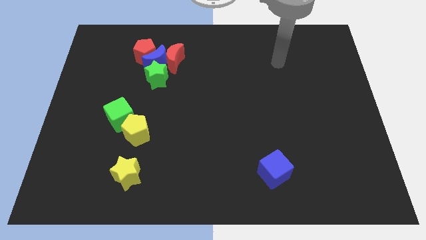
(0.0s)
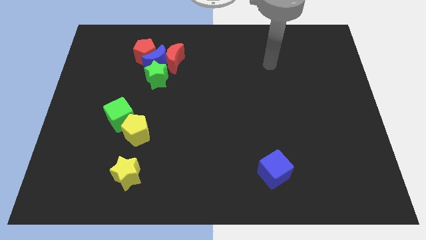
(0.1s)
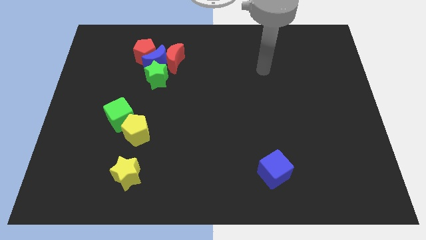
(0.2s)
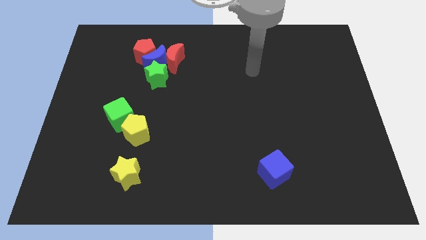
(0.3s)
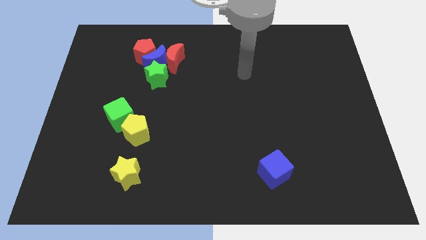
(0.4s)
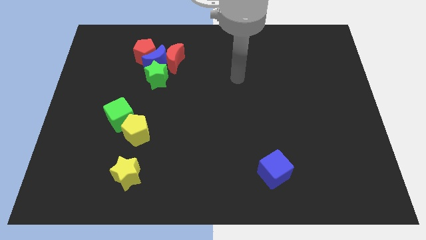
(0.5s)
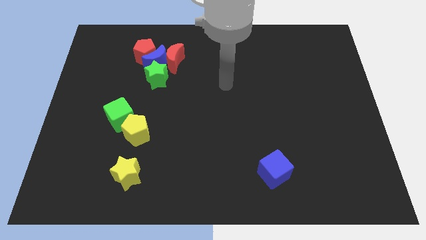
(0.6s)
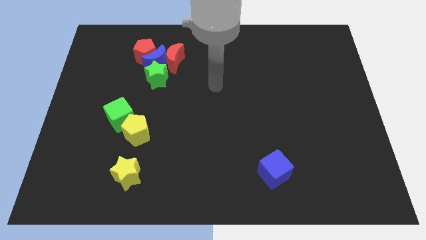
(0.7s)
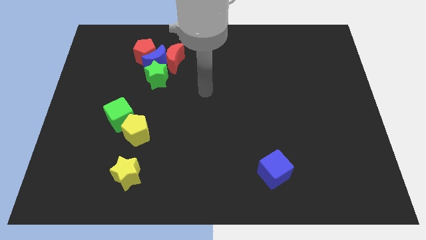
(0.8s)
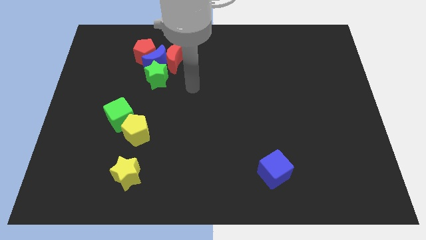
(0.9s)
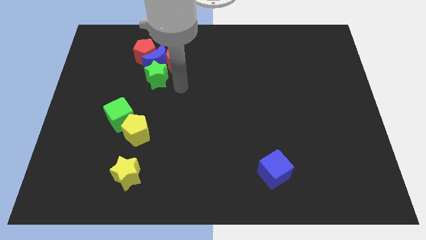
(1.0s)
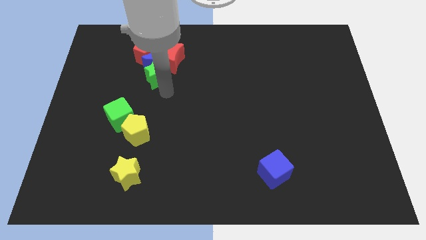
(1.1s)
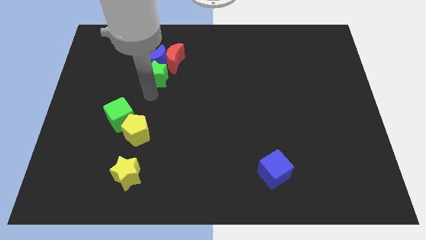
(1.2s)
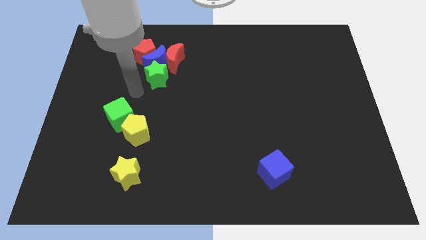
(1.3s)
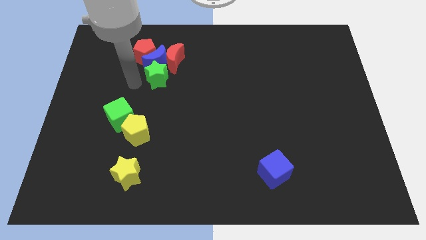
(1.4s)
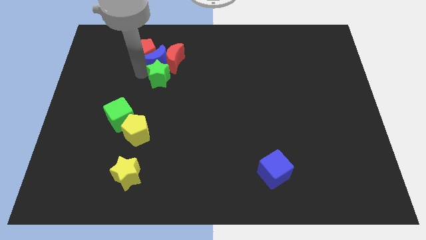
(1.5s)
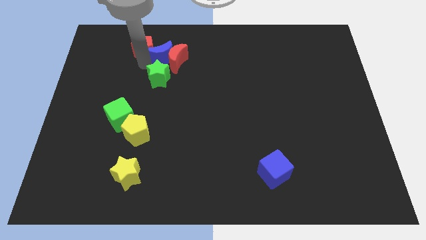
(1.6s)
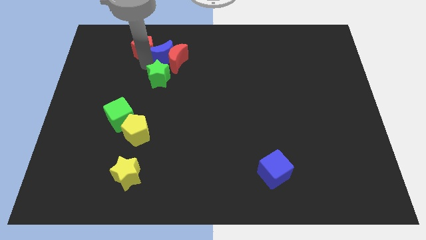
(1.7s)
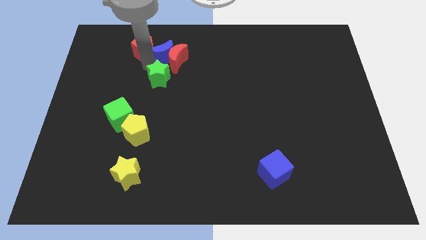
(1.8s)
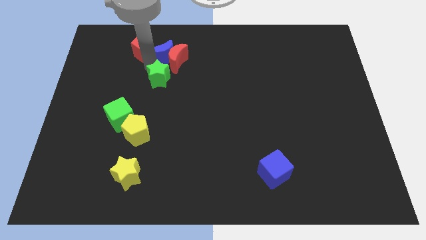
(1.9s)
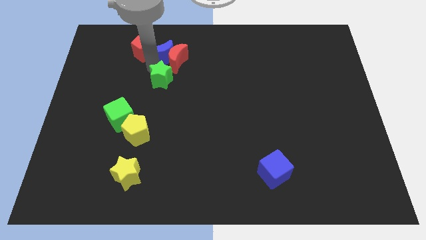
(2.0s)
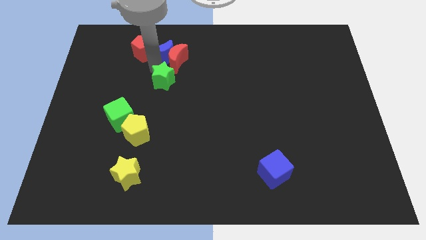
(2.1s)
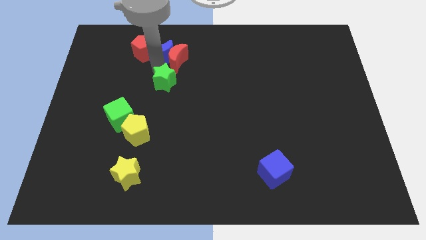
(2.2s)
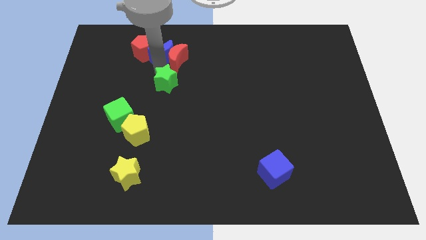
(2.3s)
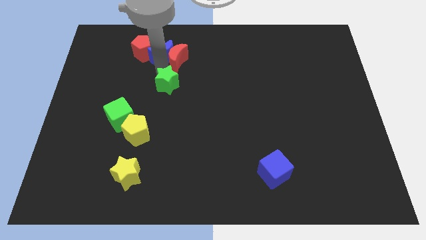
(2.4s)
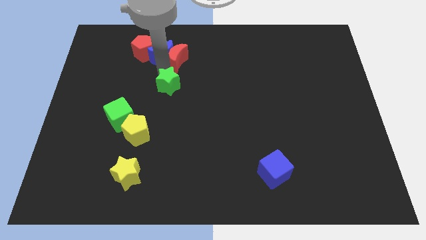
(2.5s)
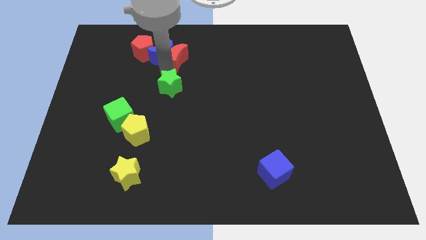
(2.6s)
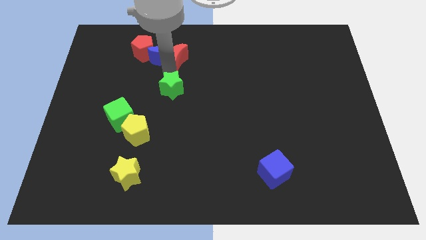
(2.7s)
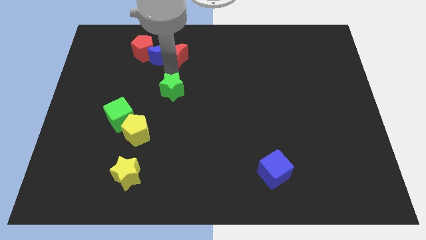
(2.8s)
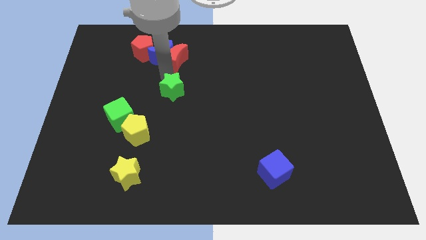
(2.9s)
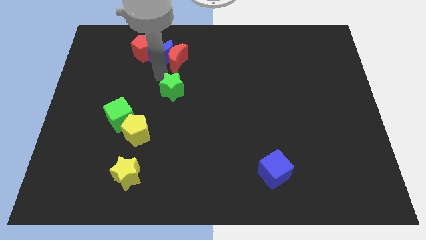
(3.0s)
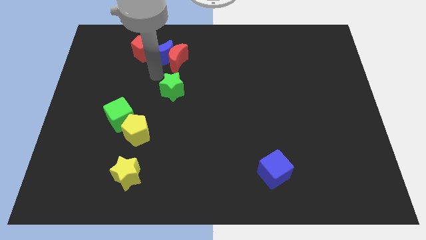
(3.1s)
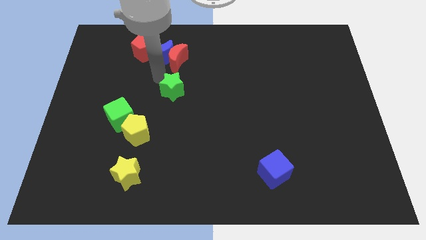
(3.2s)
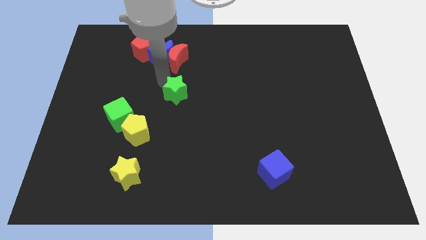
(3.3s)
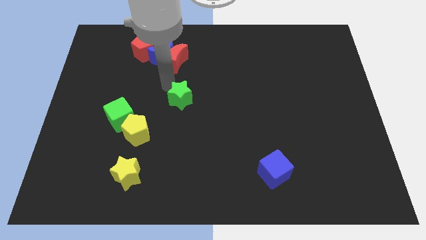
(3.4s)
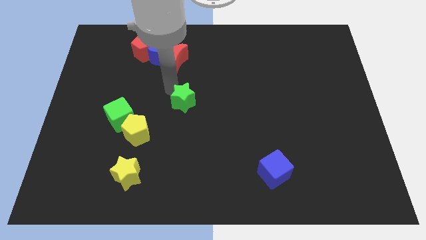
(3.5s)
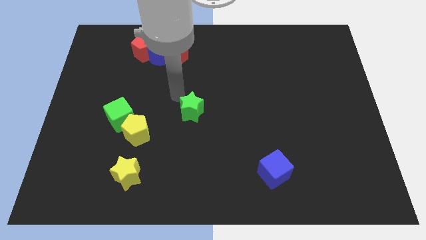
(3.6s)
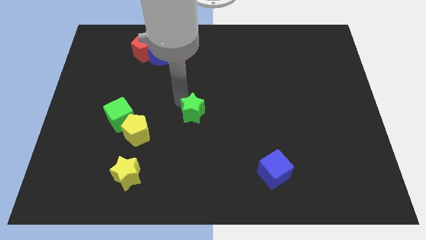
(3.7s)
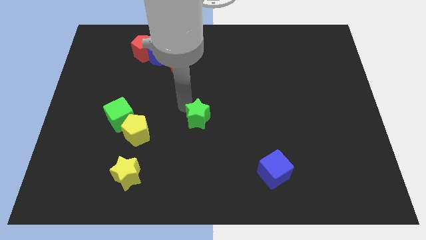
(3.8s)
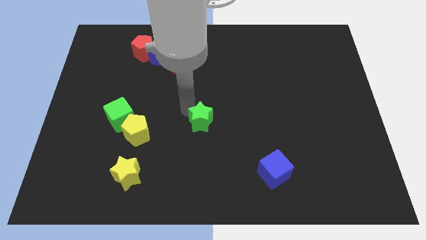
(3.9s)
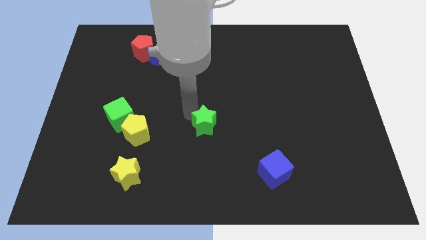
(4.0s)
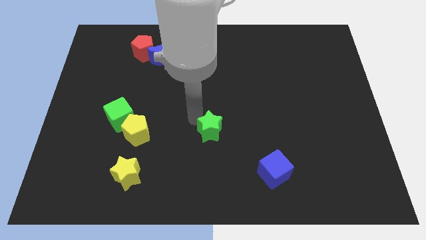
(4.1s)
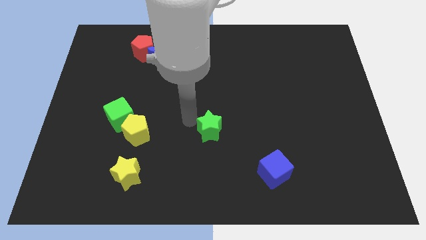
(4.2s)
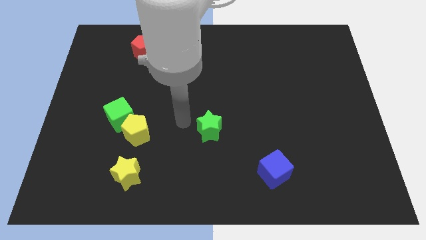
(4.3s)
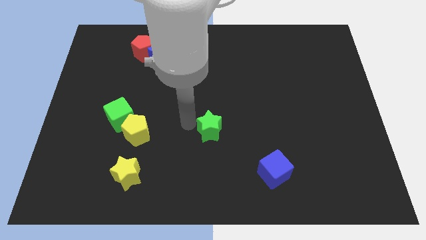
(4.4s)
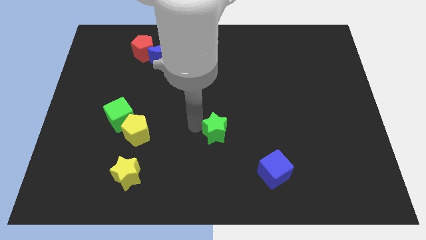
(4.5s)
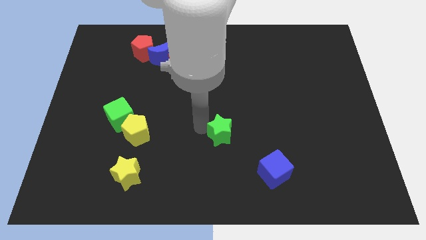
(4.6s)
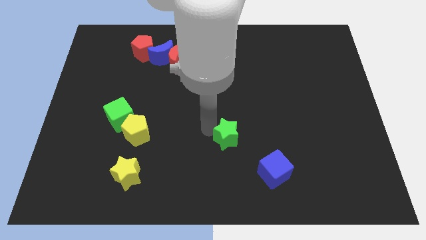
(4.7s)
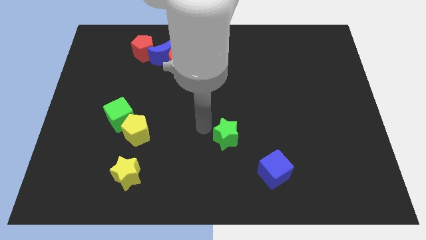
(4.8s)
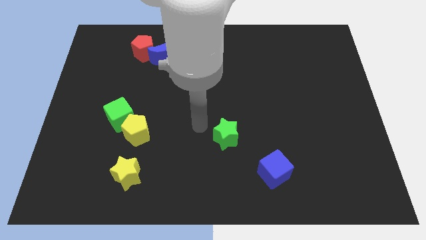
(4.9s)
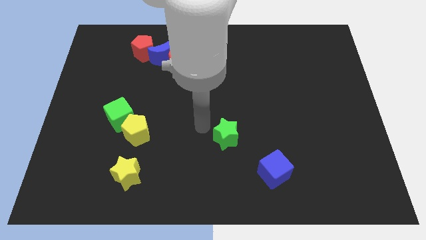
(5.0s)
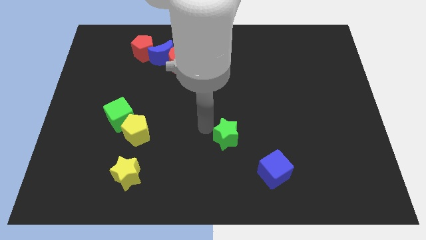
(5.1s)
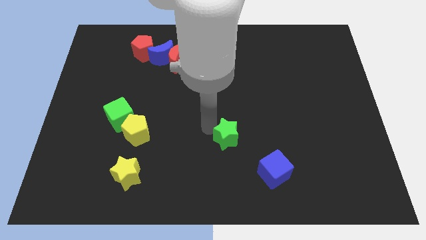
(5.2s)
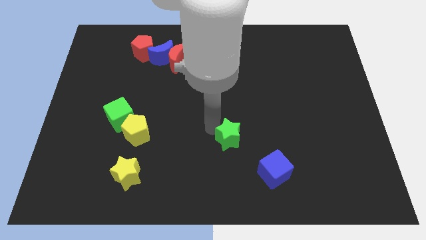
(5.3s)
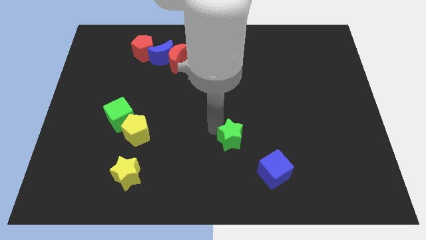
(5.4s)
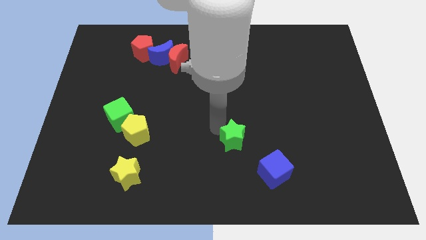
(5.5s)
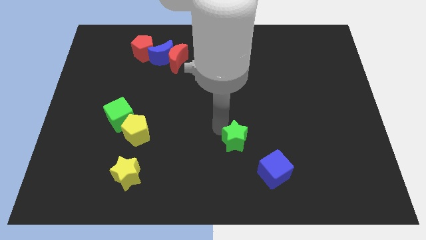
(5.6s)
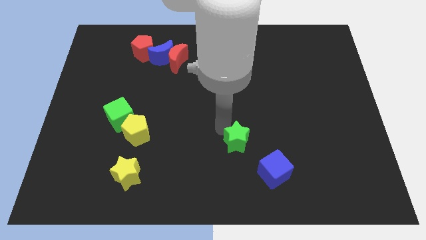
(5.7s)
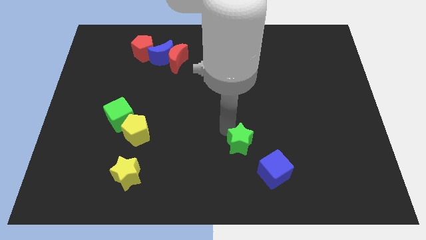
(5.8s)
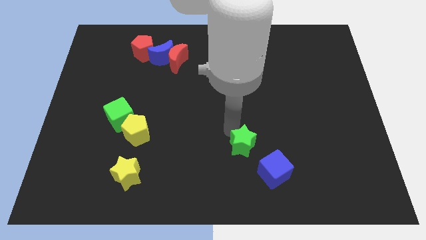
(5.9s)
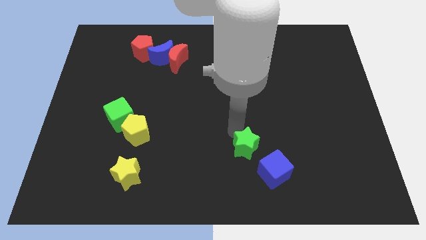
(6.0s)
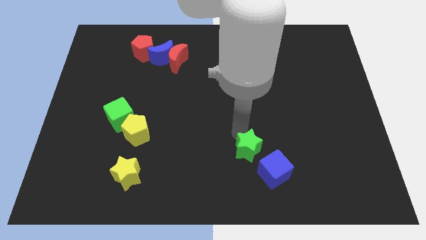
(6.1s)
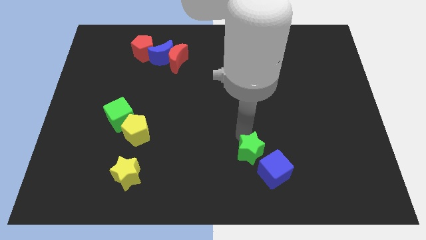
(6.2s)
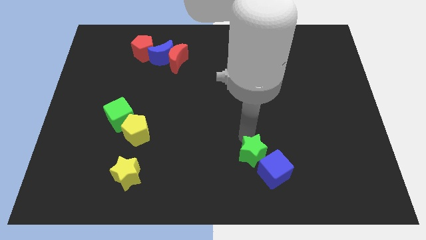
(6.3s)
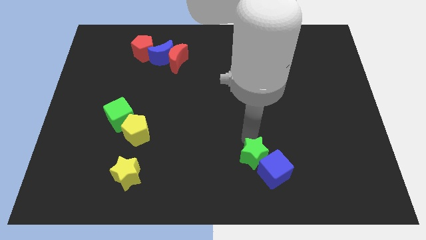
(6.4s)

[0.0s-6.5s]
slide the green star to the blue cube
